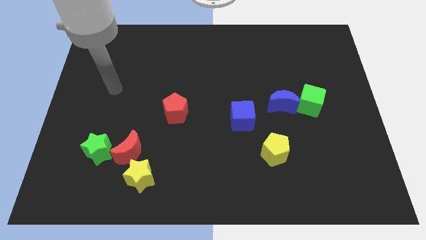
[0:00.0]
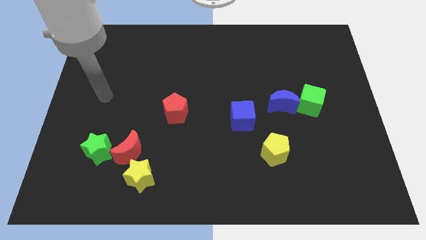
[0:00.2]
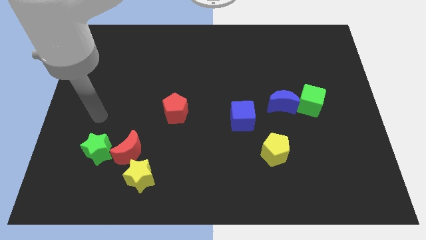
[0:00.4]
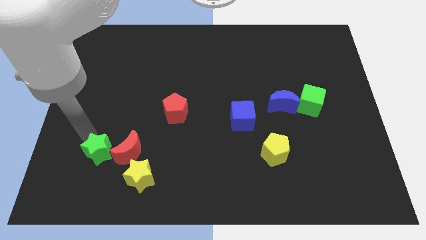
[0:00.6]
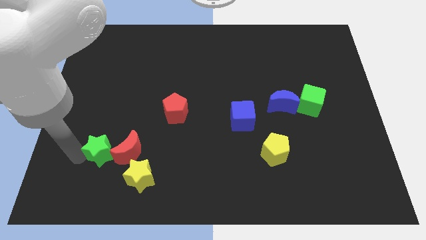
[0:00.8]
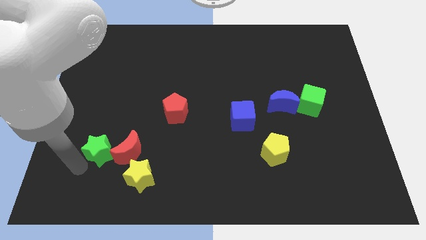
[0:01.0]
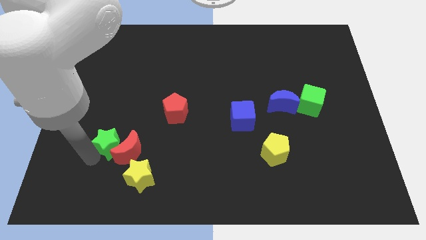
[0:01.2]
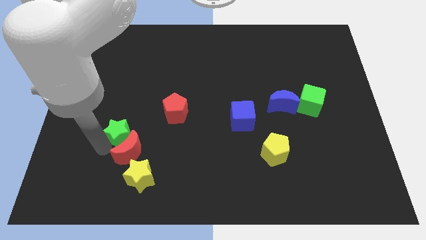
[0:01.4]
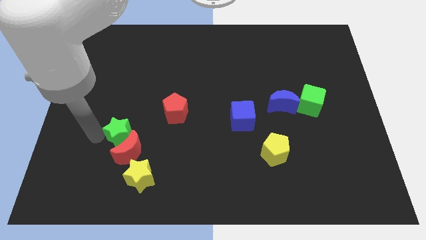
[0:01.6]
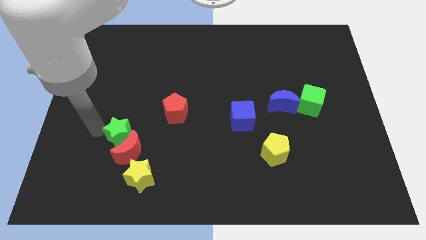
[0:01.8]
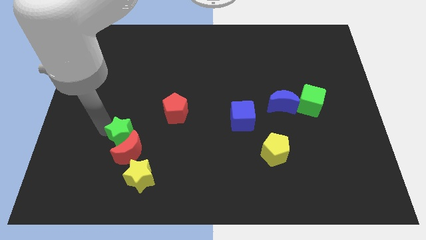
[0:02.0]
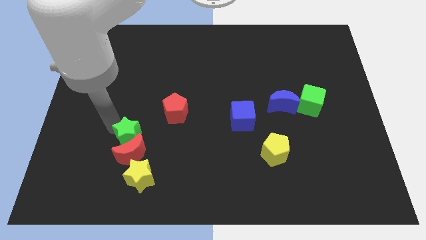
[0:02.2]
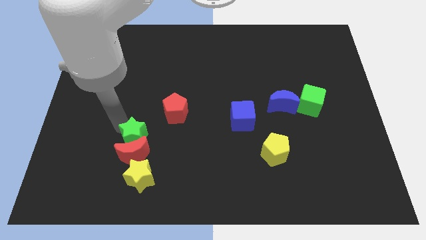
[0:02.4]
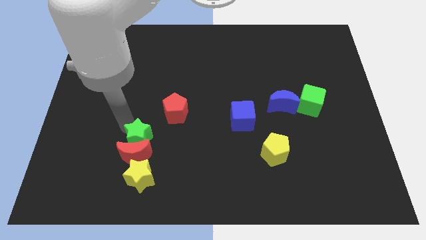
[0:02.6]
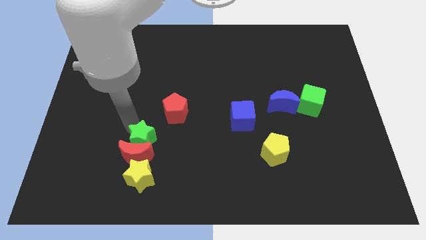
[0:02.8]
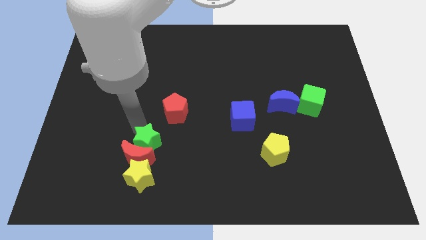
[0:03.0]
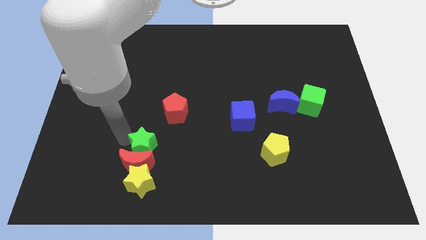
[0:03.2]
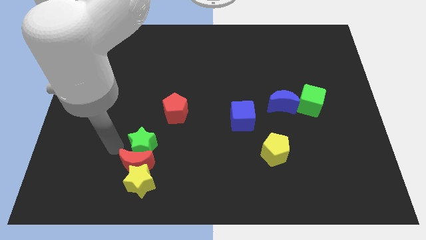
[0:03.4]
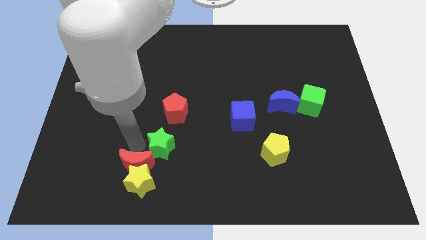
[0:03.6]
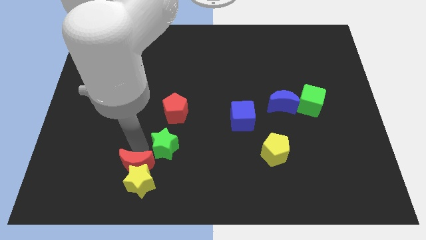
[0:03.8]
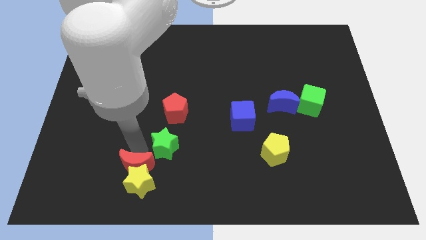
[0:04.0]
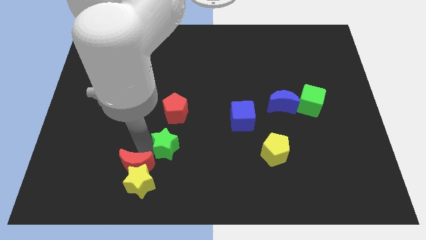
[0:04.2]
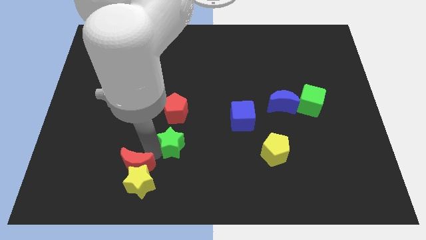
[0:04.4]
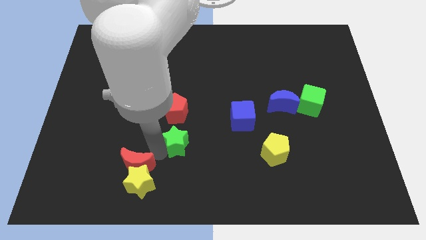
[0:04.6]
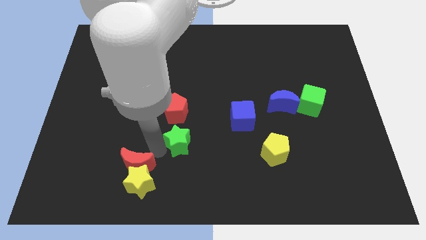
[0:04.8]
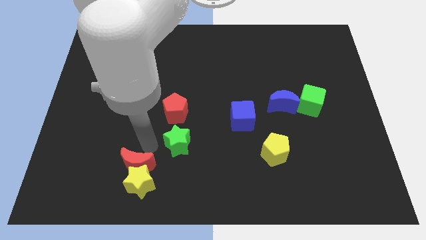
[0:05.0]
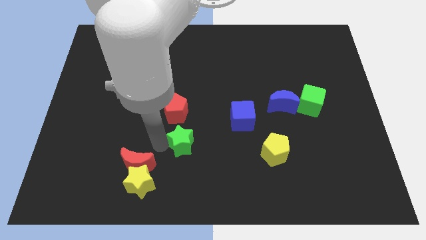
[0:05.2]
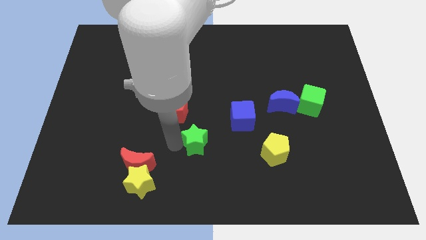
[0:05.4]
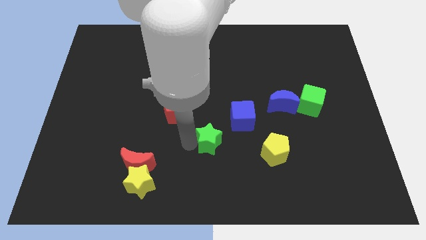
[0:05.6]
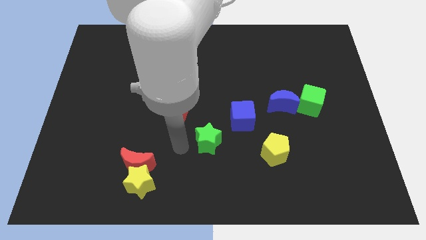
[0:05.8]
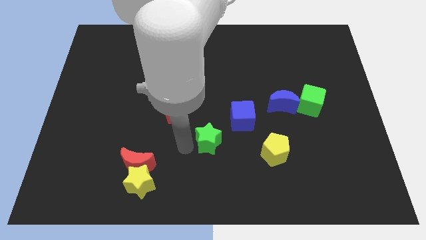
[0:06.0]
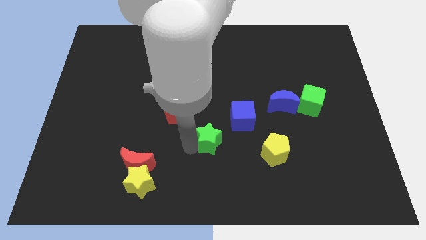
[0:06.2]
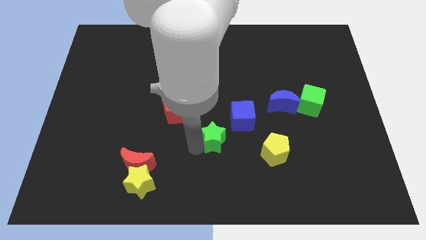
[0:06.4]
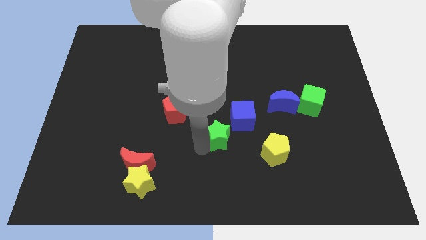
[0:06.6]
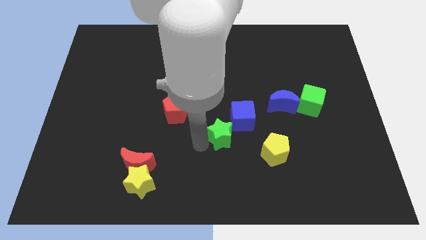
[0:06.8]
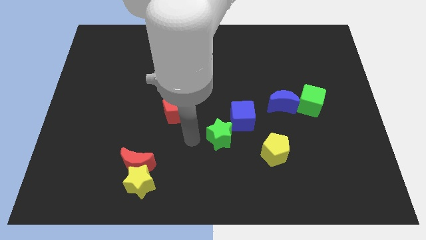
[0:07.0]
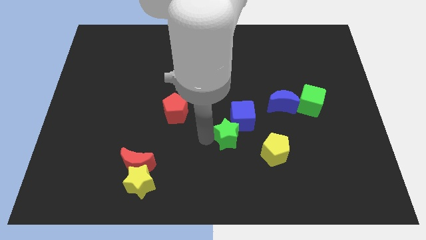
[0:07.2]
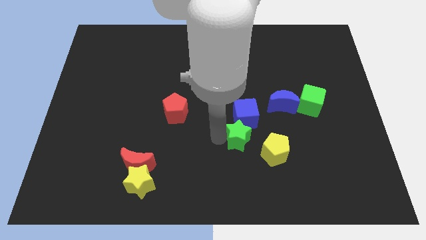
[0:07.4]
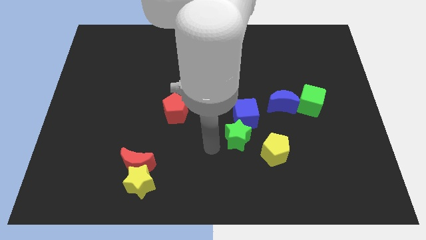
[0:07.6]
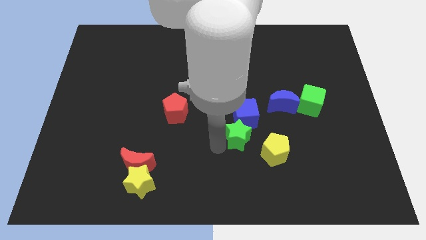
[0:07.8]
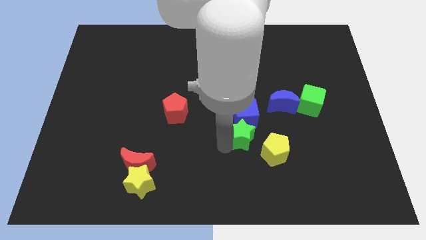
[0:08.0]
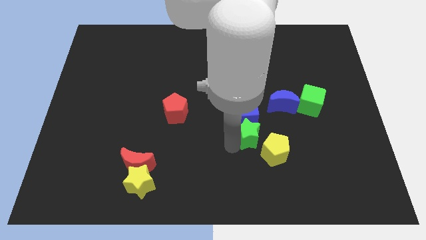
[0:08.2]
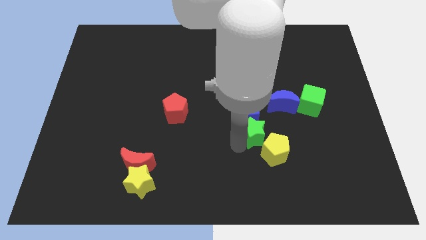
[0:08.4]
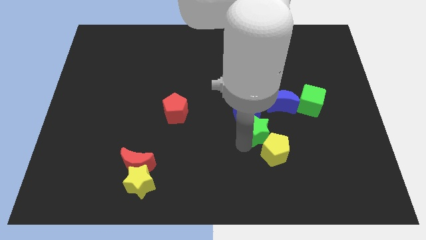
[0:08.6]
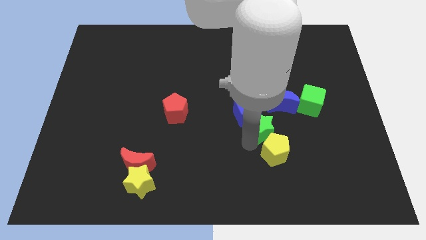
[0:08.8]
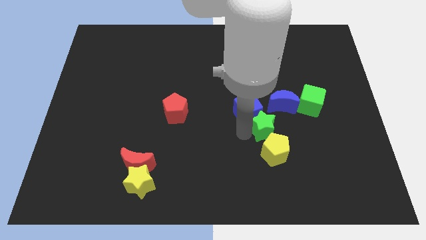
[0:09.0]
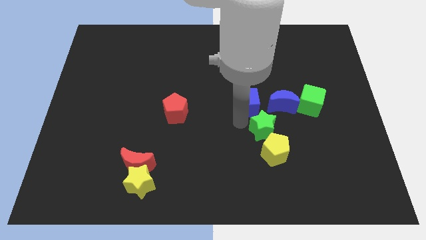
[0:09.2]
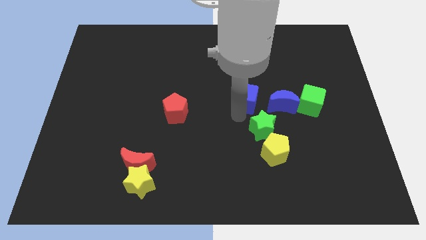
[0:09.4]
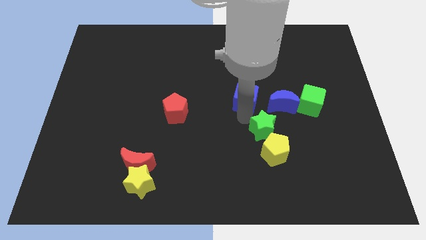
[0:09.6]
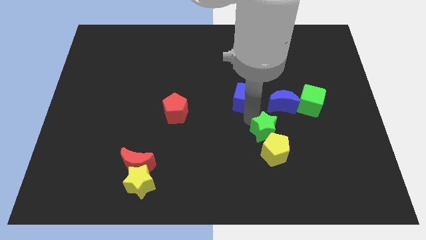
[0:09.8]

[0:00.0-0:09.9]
slide the green star to the bottom of the blue moon

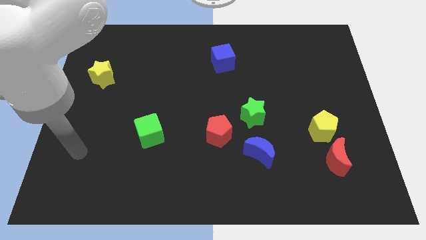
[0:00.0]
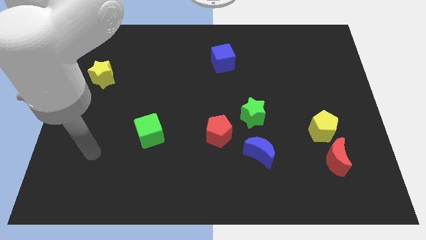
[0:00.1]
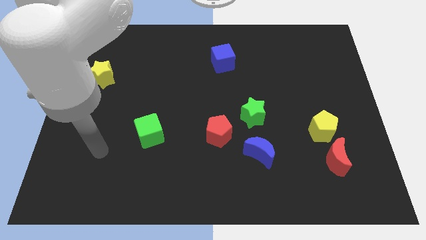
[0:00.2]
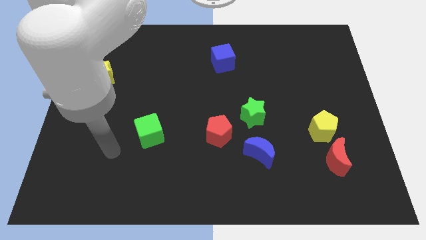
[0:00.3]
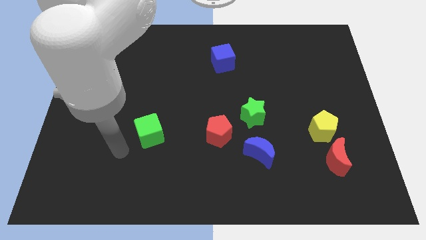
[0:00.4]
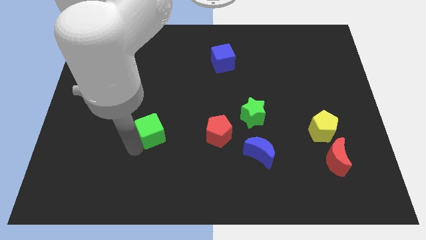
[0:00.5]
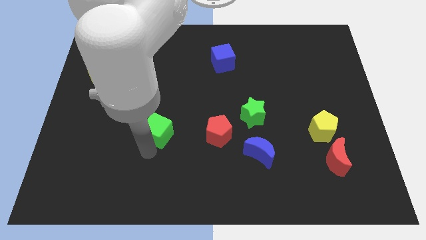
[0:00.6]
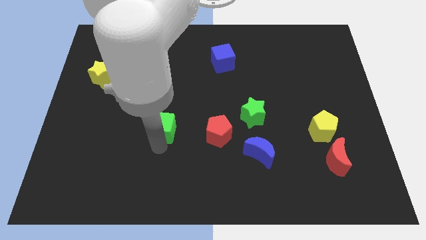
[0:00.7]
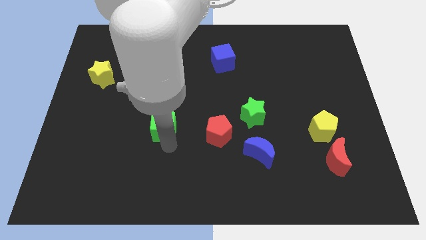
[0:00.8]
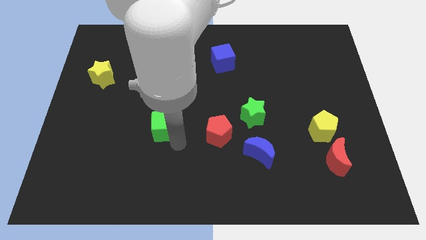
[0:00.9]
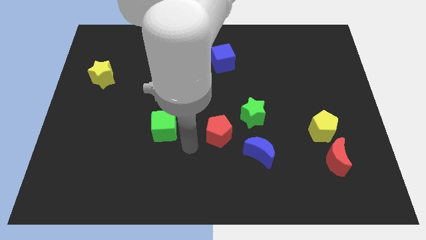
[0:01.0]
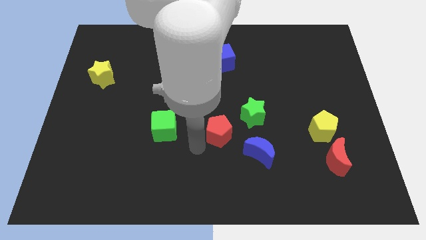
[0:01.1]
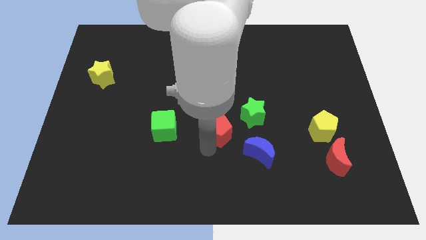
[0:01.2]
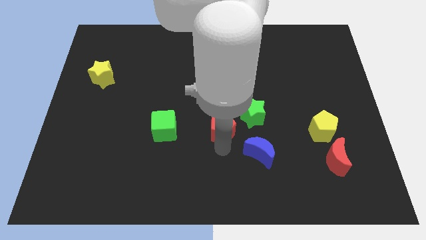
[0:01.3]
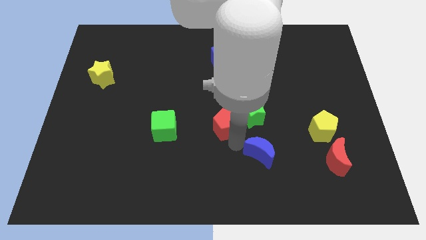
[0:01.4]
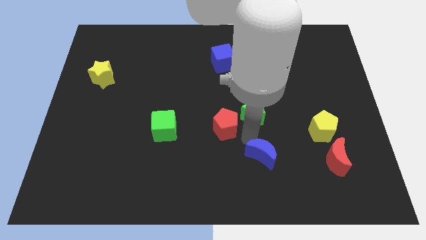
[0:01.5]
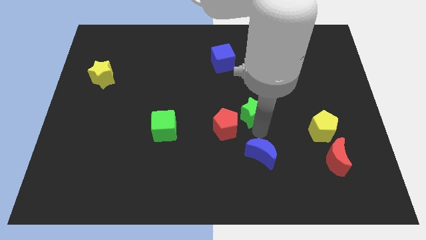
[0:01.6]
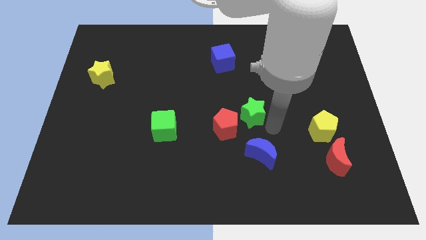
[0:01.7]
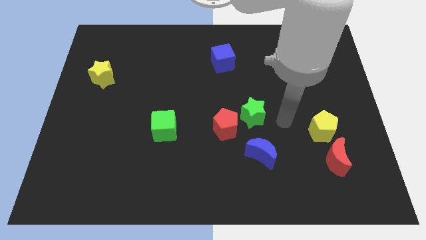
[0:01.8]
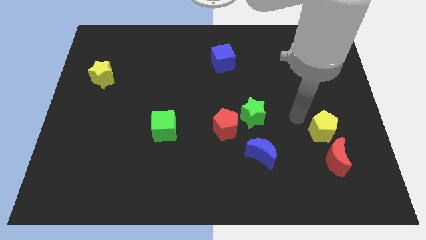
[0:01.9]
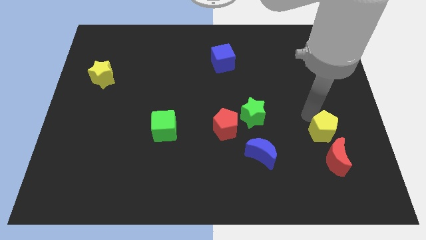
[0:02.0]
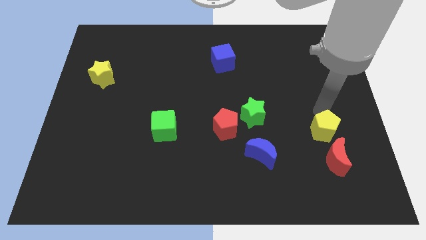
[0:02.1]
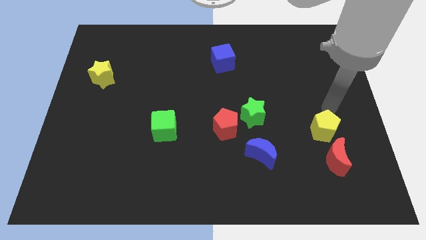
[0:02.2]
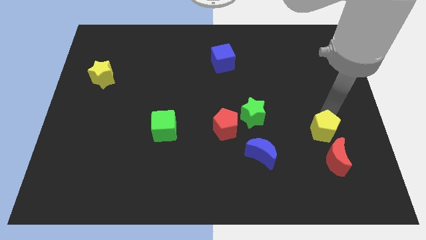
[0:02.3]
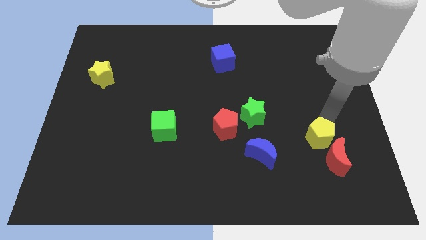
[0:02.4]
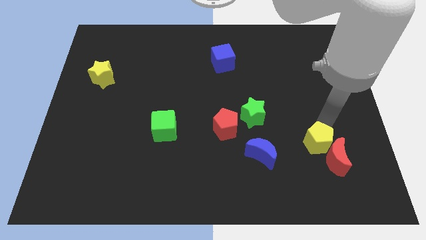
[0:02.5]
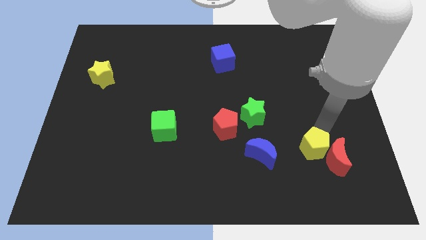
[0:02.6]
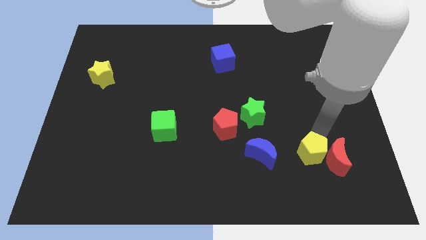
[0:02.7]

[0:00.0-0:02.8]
move the yellow pentagon to the bottom left side of the red moon
